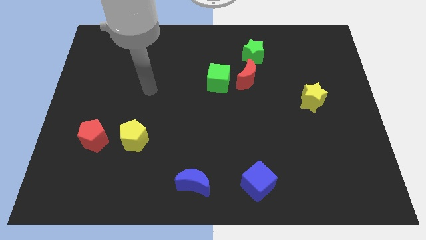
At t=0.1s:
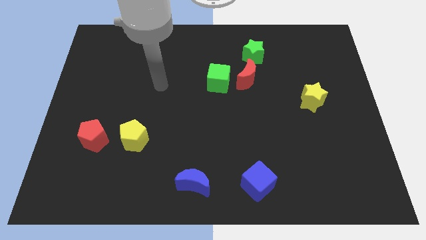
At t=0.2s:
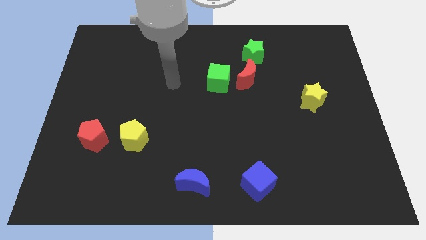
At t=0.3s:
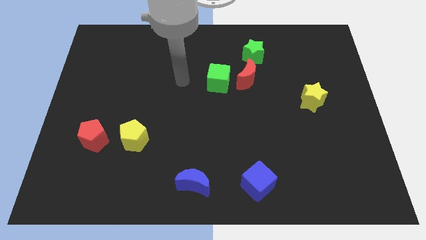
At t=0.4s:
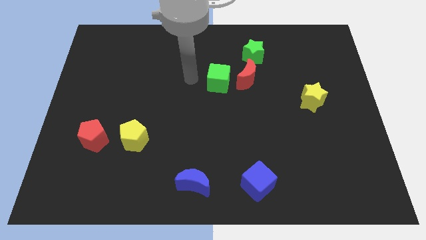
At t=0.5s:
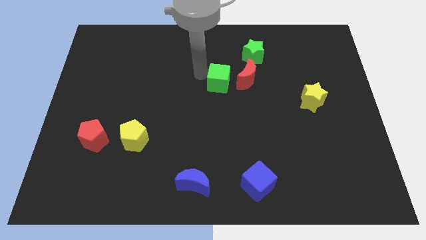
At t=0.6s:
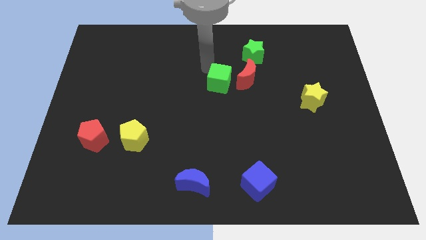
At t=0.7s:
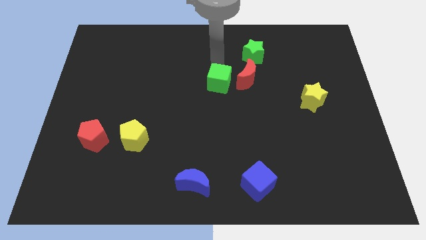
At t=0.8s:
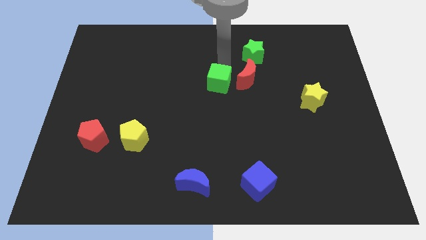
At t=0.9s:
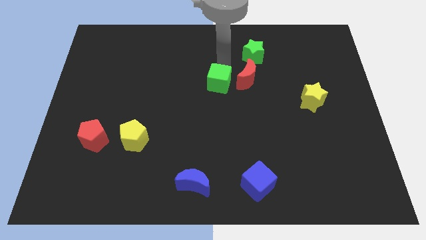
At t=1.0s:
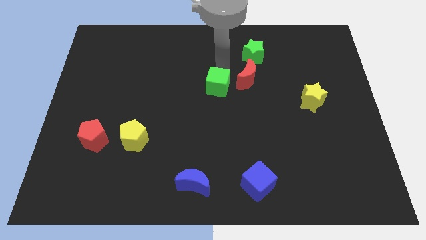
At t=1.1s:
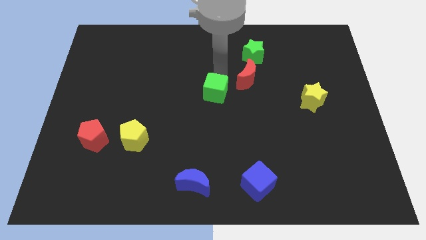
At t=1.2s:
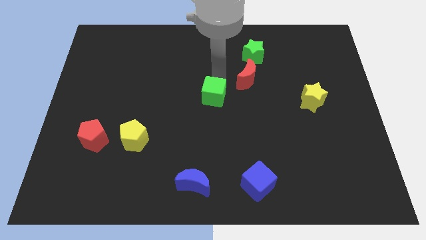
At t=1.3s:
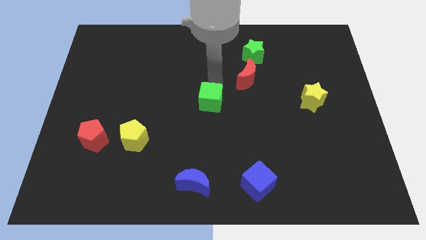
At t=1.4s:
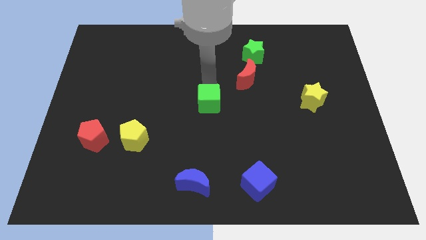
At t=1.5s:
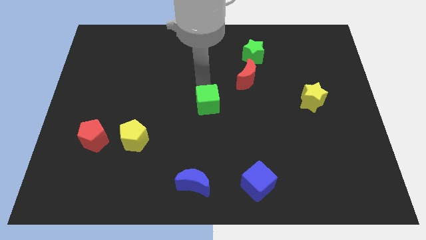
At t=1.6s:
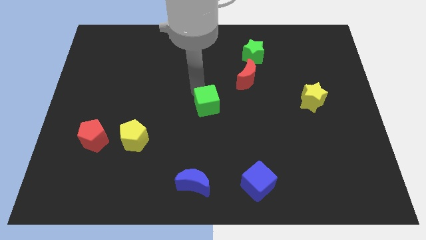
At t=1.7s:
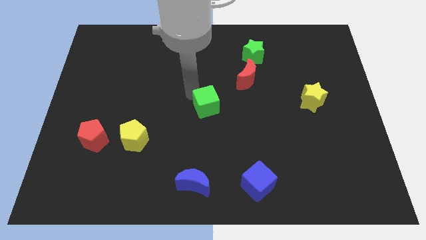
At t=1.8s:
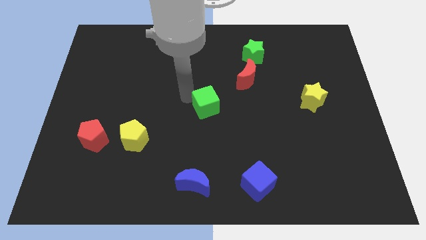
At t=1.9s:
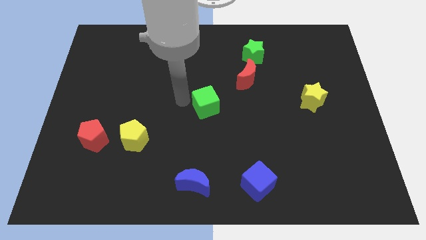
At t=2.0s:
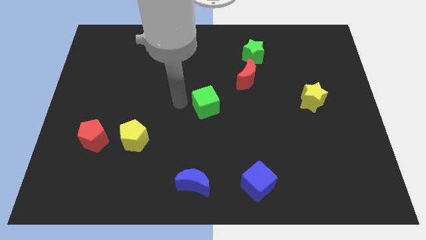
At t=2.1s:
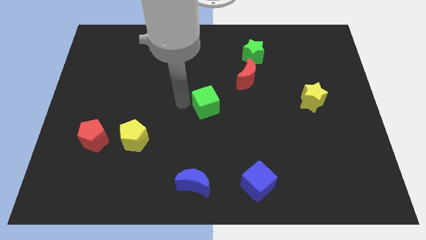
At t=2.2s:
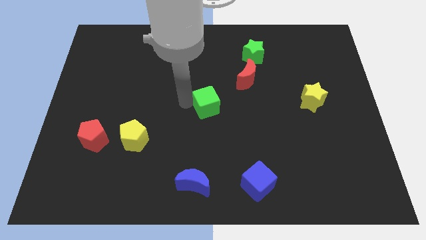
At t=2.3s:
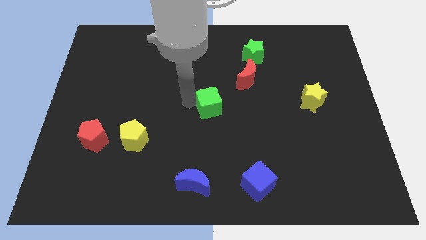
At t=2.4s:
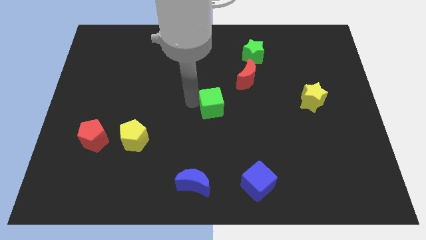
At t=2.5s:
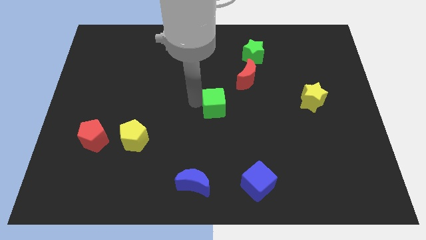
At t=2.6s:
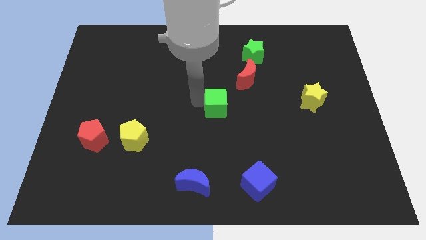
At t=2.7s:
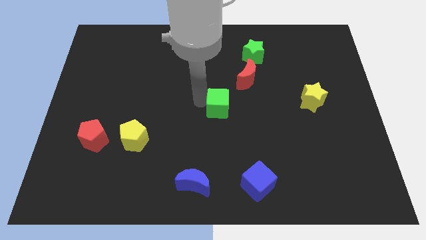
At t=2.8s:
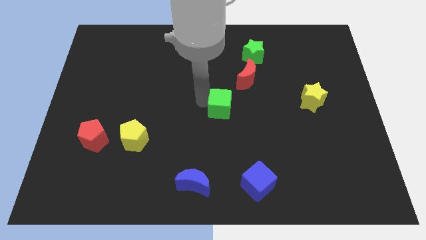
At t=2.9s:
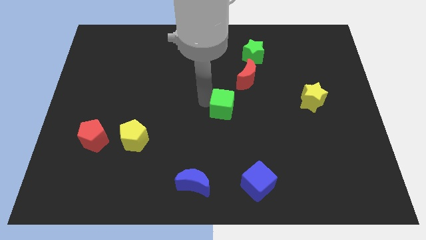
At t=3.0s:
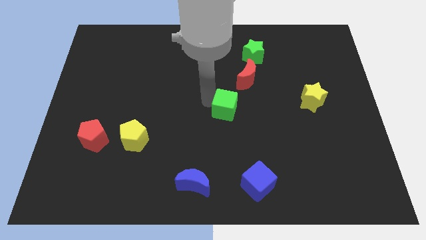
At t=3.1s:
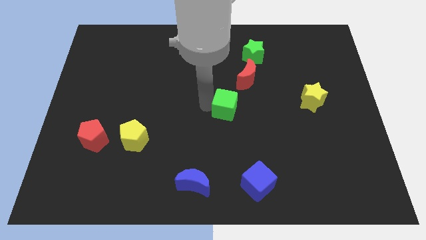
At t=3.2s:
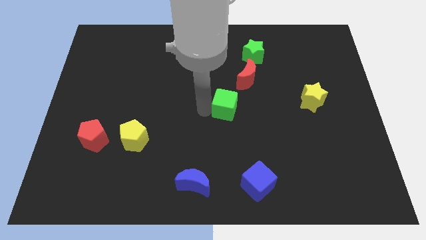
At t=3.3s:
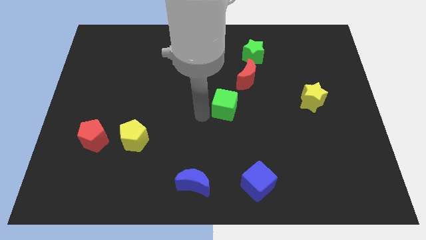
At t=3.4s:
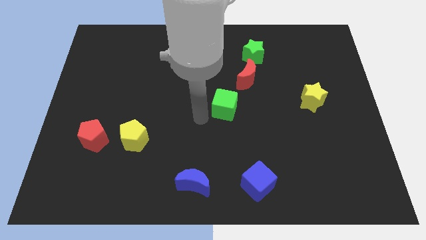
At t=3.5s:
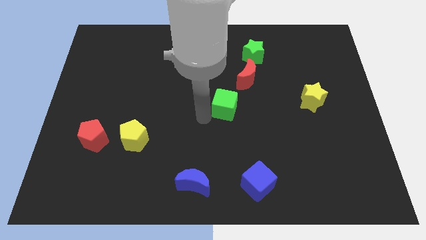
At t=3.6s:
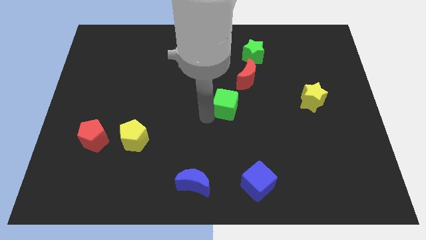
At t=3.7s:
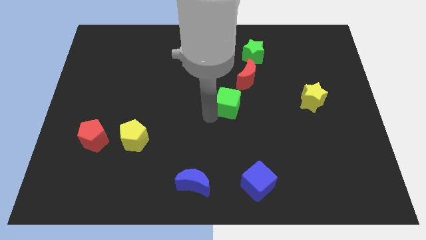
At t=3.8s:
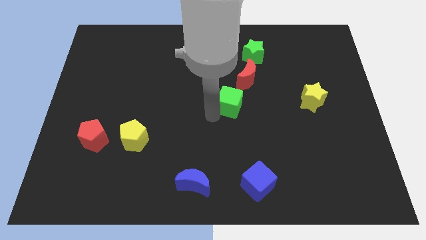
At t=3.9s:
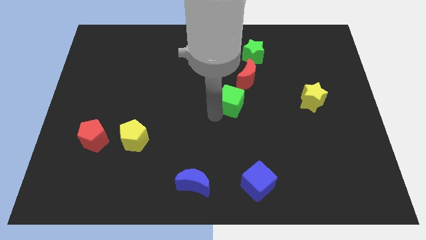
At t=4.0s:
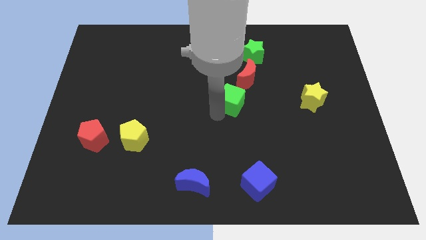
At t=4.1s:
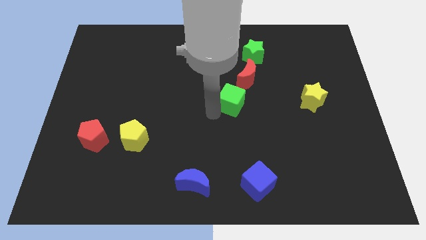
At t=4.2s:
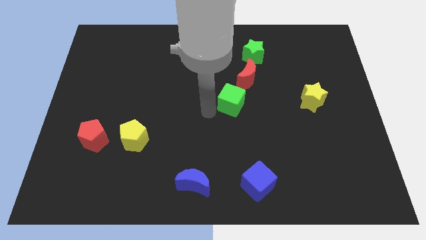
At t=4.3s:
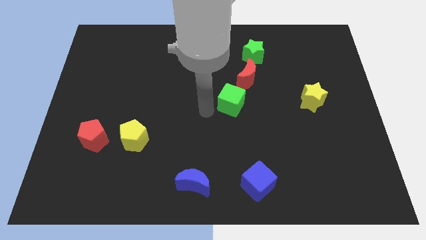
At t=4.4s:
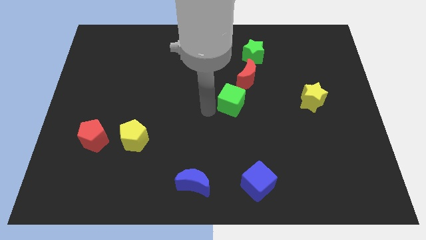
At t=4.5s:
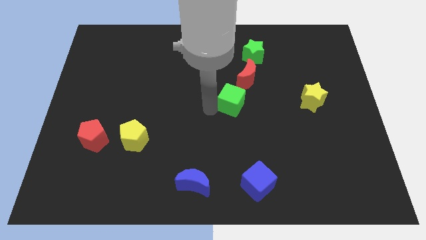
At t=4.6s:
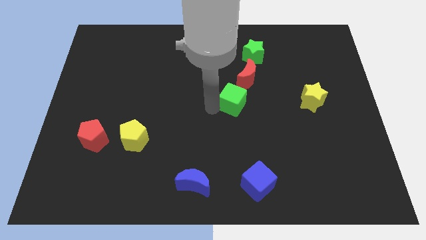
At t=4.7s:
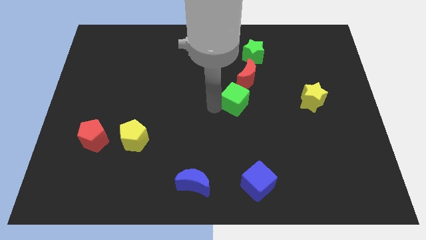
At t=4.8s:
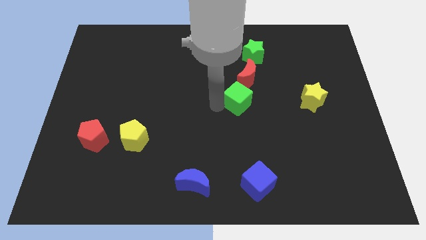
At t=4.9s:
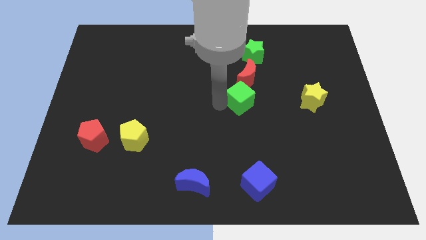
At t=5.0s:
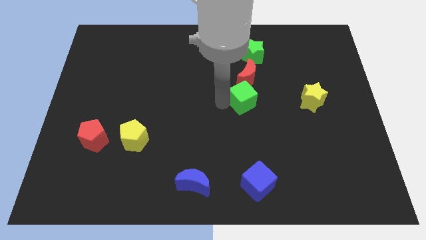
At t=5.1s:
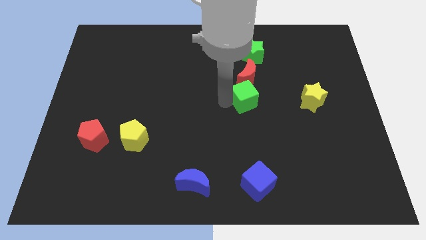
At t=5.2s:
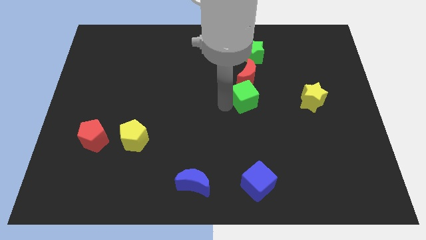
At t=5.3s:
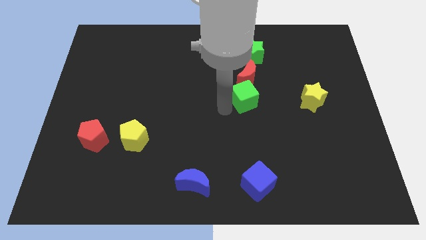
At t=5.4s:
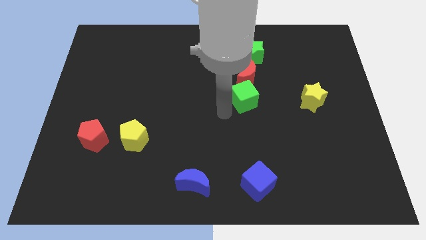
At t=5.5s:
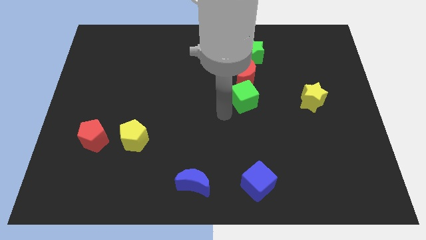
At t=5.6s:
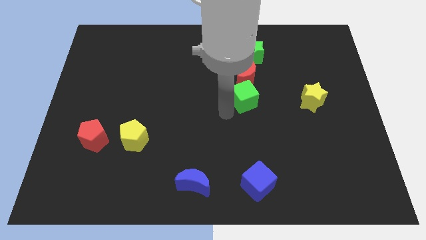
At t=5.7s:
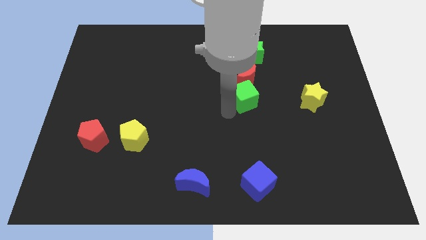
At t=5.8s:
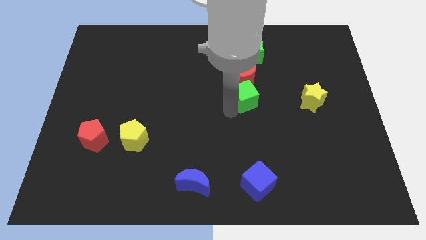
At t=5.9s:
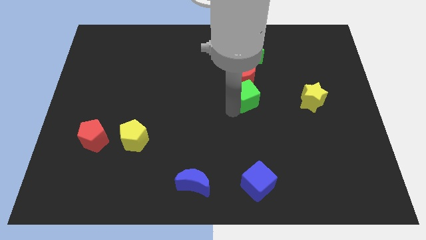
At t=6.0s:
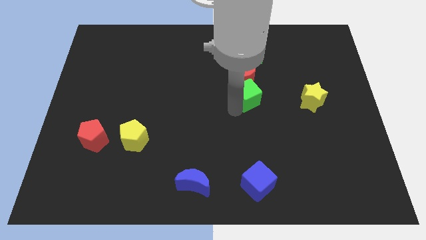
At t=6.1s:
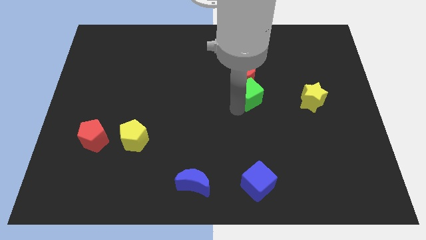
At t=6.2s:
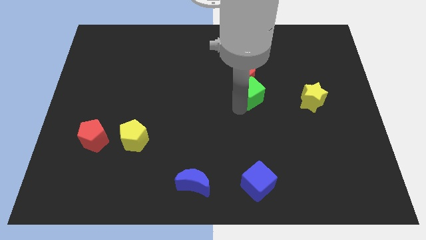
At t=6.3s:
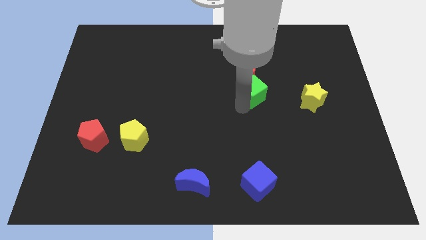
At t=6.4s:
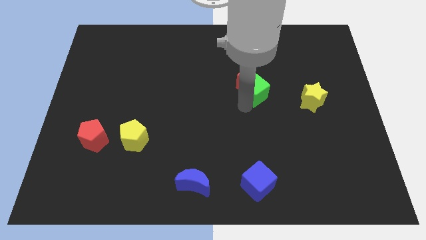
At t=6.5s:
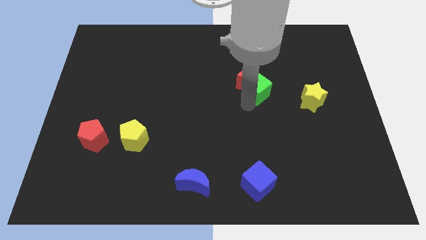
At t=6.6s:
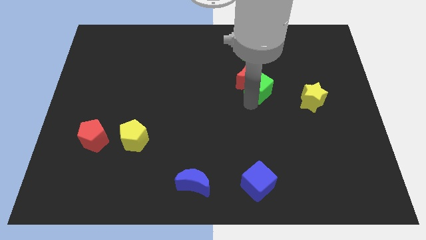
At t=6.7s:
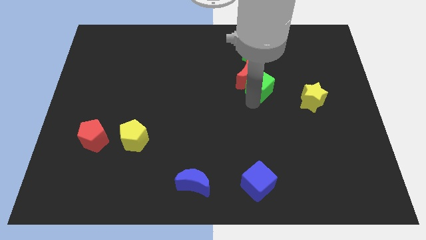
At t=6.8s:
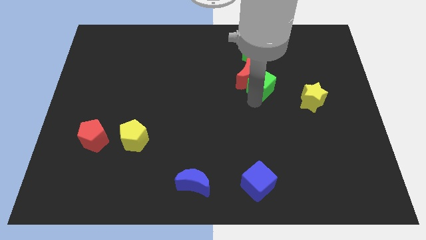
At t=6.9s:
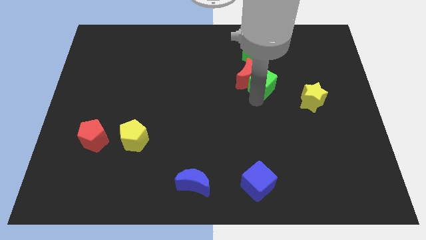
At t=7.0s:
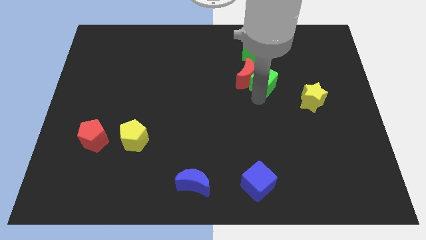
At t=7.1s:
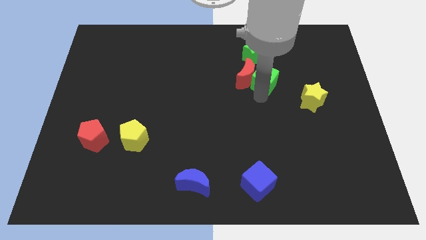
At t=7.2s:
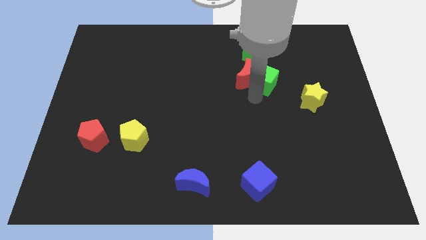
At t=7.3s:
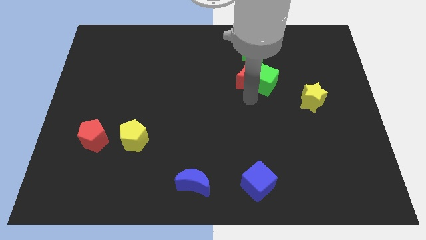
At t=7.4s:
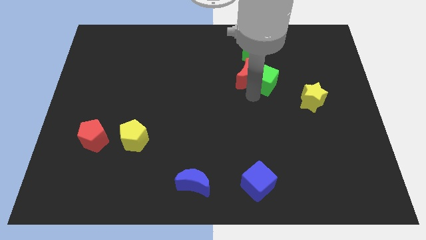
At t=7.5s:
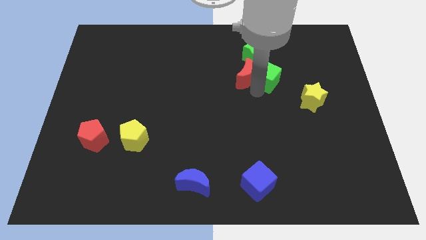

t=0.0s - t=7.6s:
put the green cube to the bottom right side of the green star

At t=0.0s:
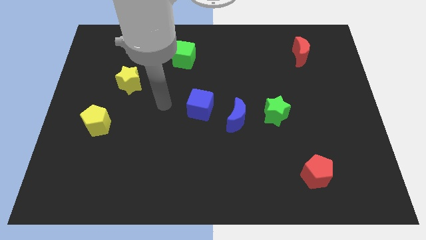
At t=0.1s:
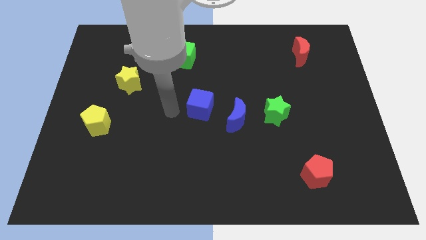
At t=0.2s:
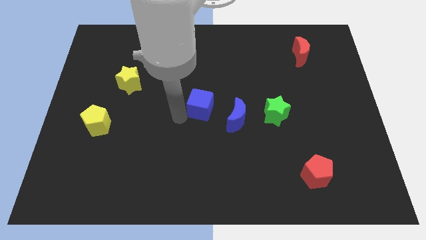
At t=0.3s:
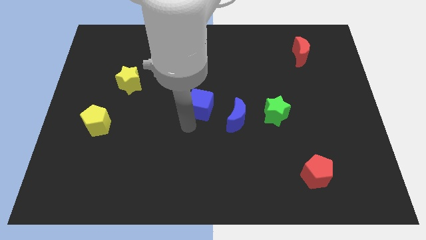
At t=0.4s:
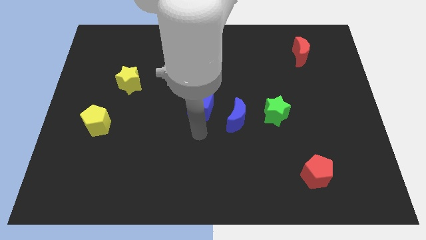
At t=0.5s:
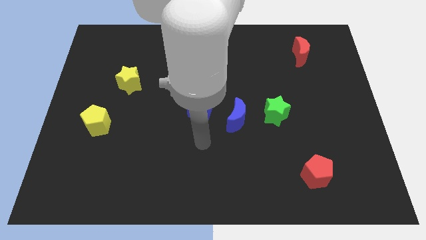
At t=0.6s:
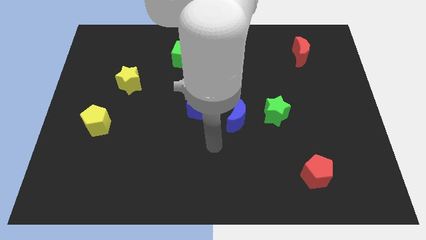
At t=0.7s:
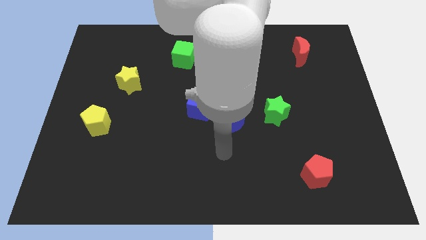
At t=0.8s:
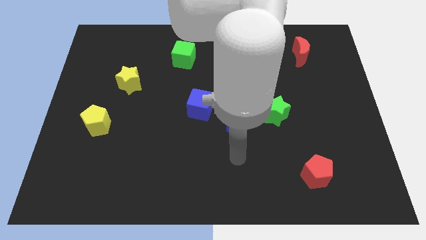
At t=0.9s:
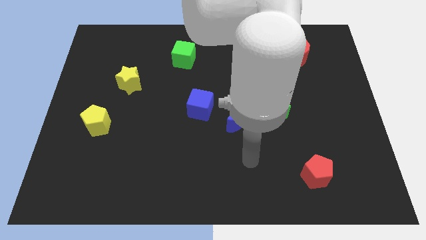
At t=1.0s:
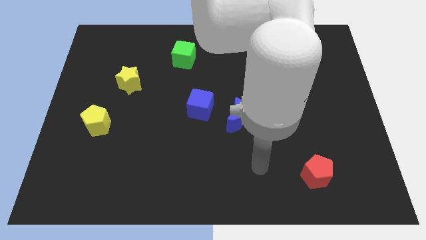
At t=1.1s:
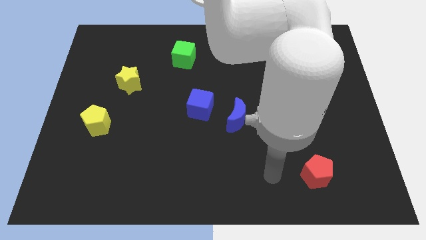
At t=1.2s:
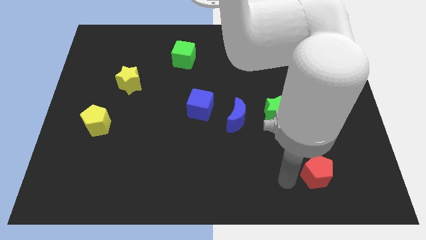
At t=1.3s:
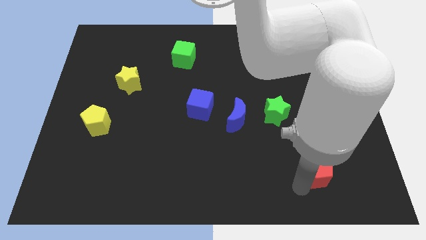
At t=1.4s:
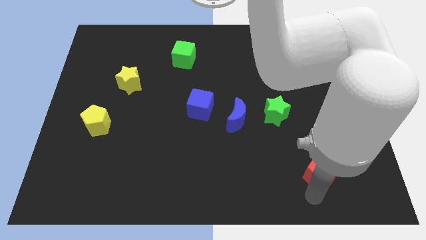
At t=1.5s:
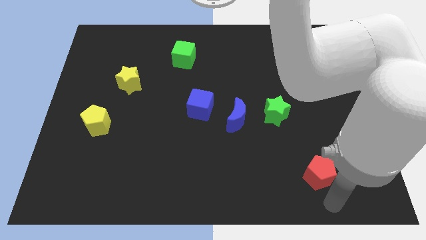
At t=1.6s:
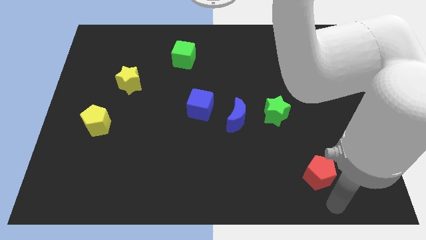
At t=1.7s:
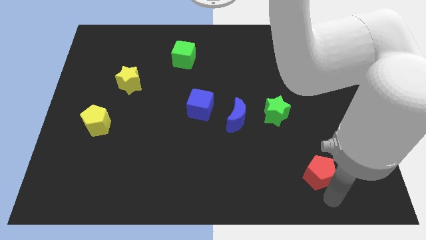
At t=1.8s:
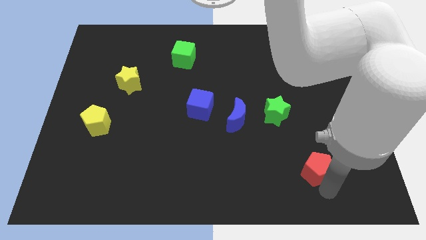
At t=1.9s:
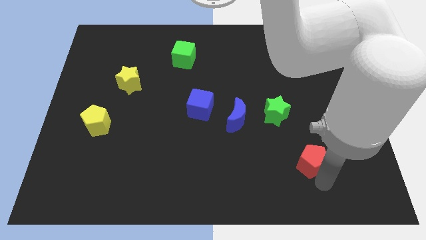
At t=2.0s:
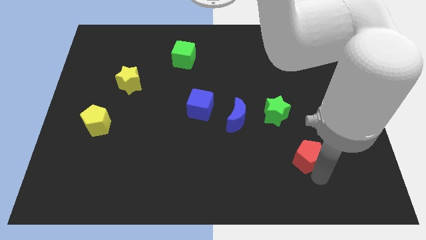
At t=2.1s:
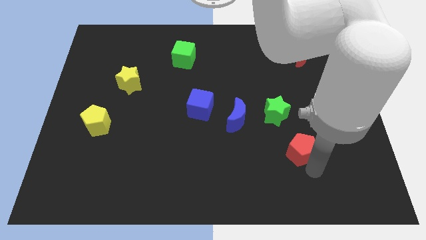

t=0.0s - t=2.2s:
slide the red pentagon diagonally down and to the right of the green star
